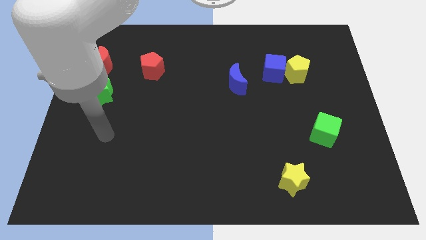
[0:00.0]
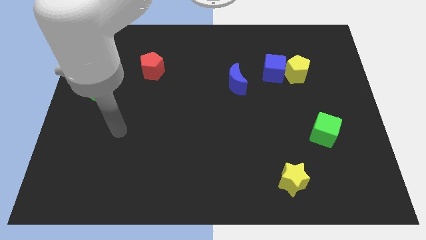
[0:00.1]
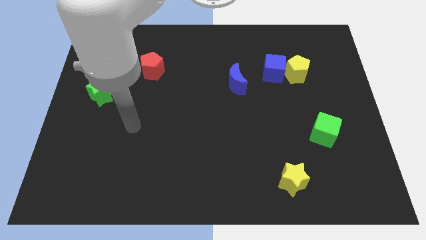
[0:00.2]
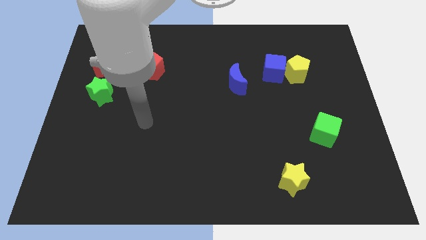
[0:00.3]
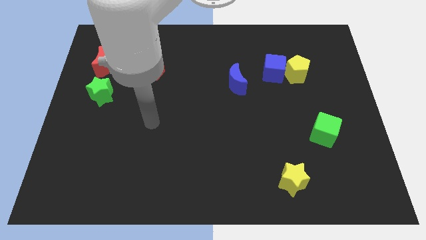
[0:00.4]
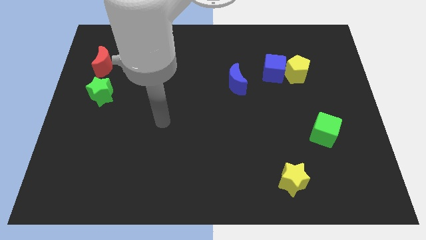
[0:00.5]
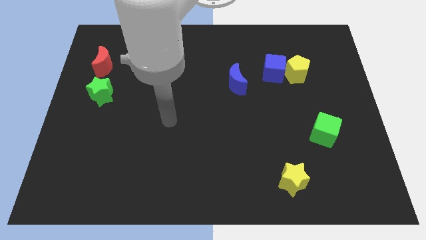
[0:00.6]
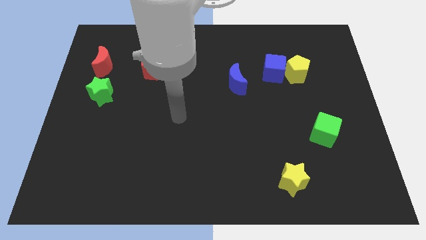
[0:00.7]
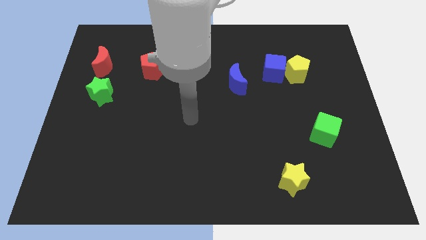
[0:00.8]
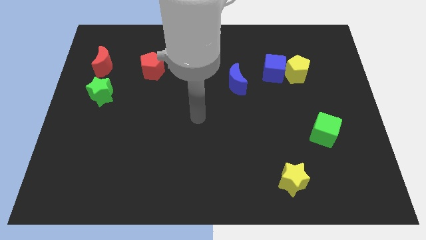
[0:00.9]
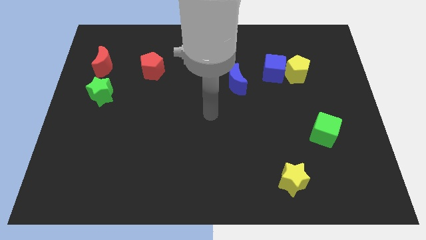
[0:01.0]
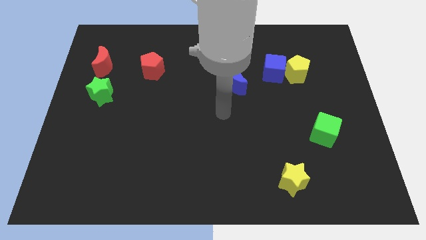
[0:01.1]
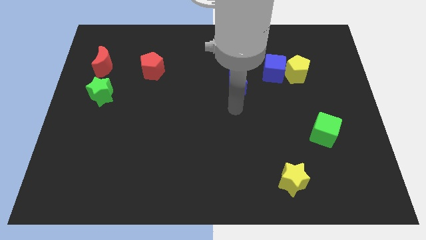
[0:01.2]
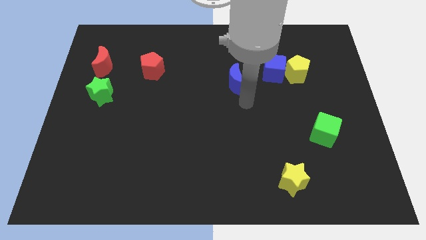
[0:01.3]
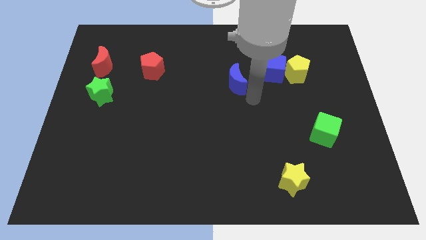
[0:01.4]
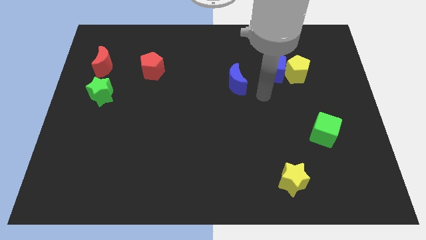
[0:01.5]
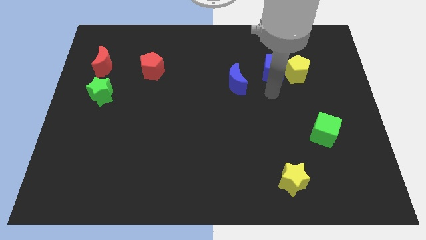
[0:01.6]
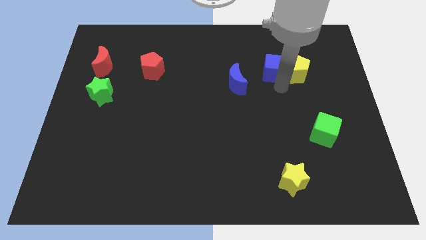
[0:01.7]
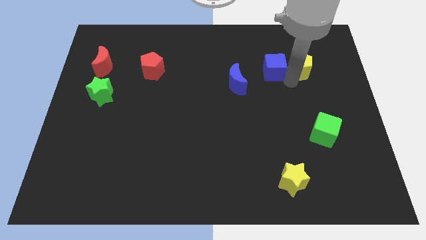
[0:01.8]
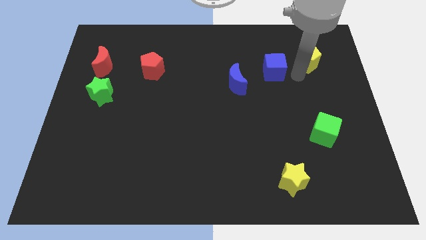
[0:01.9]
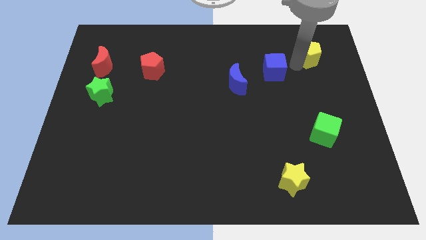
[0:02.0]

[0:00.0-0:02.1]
pull the blue cube apart from the yellow pentagon

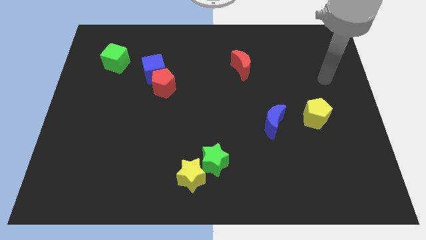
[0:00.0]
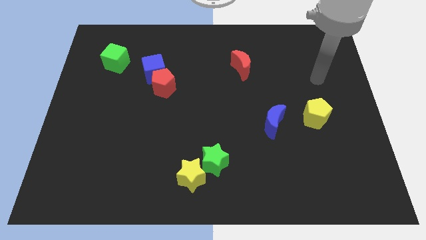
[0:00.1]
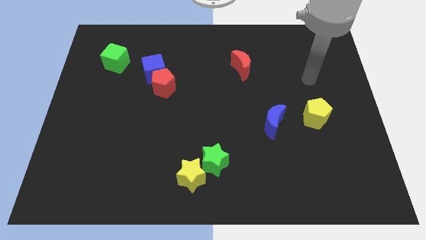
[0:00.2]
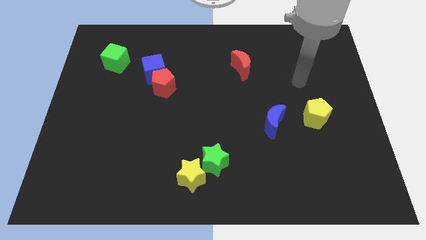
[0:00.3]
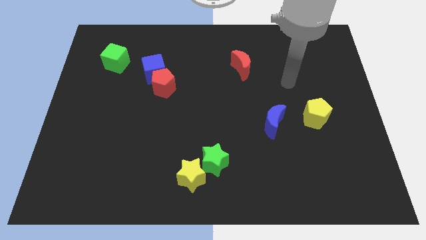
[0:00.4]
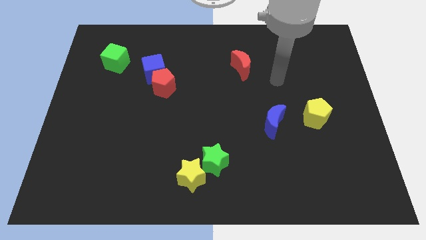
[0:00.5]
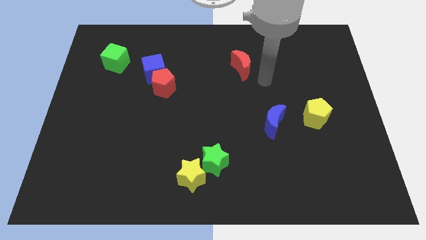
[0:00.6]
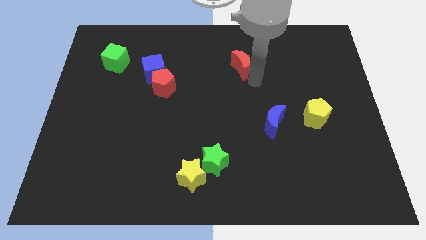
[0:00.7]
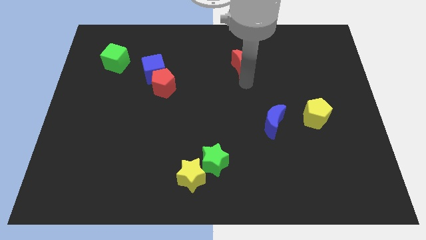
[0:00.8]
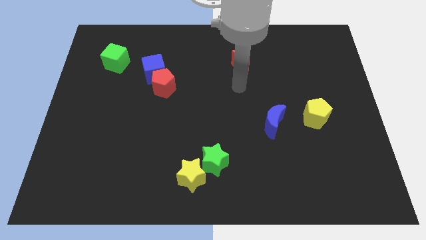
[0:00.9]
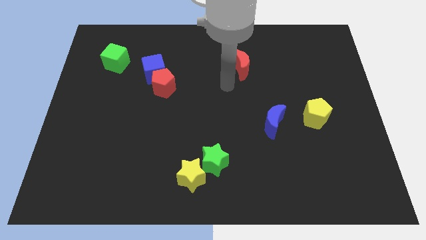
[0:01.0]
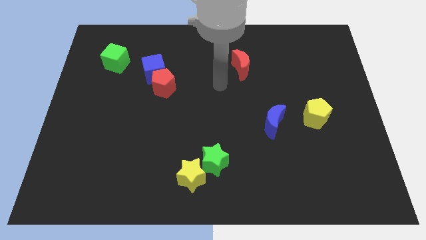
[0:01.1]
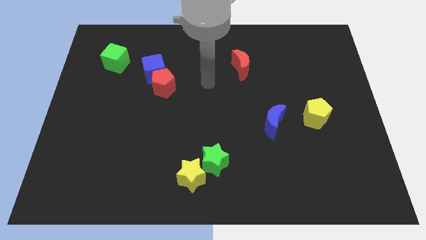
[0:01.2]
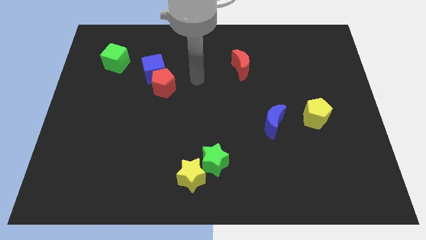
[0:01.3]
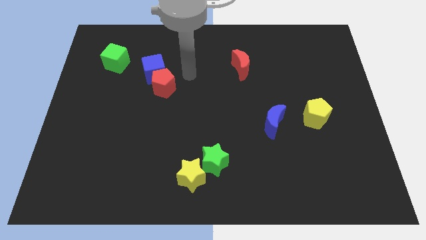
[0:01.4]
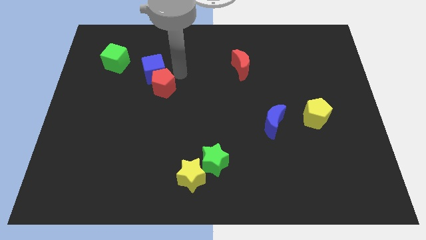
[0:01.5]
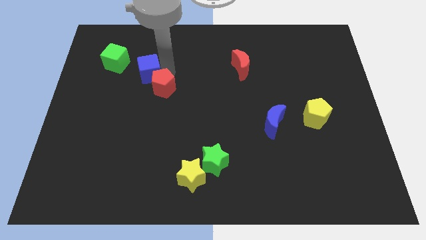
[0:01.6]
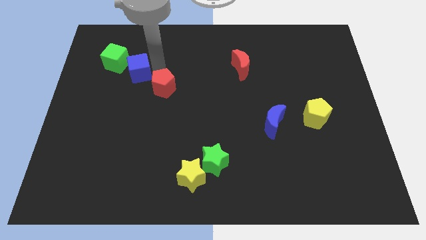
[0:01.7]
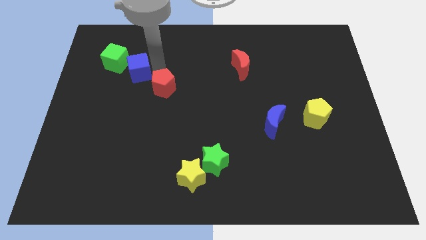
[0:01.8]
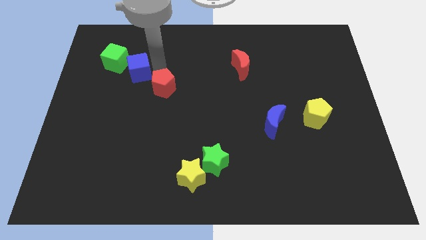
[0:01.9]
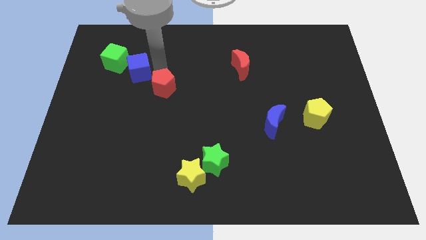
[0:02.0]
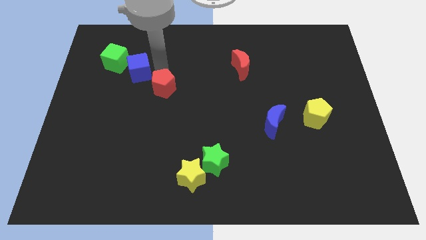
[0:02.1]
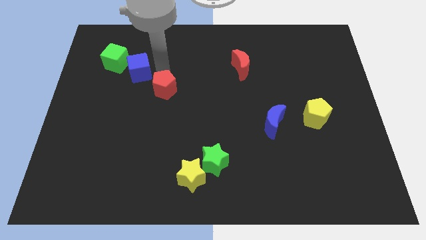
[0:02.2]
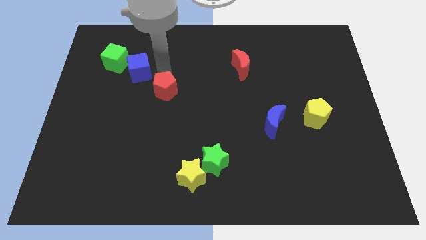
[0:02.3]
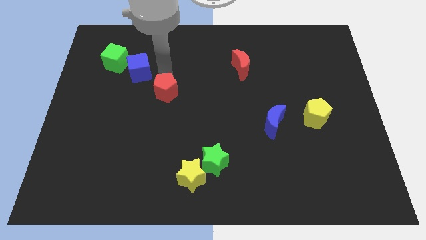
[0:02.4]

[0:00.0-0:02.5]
pull the red pentagon apart from the blue cube

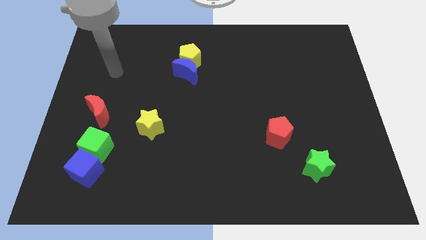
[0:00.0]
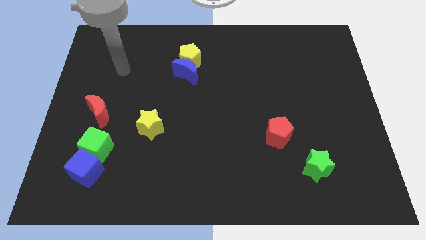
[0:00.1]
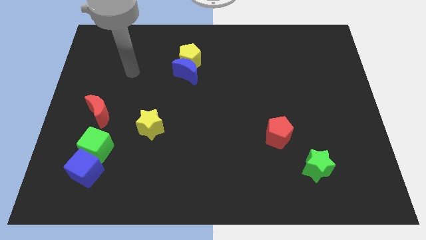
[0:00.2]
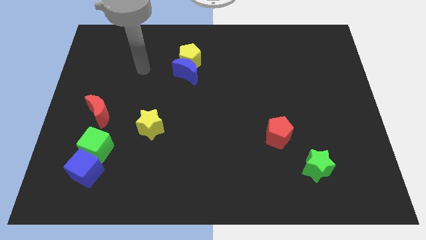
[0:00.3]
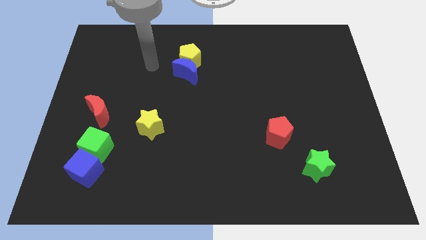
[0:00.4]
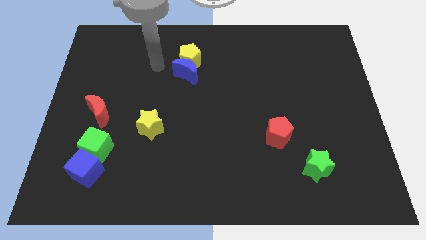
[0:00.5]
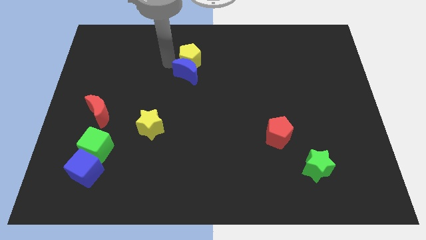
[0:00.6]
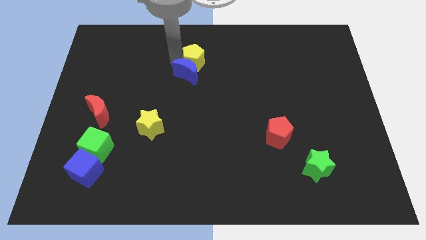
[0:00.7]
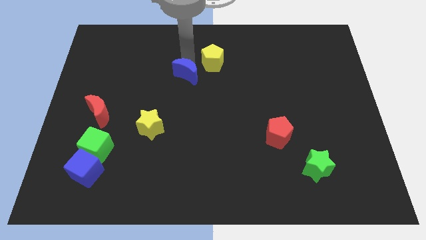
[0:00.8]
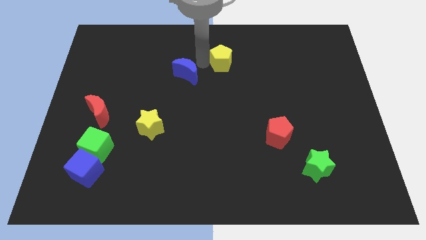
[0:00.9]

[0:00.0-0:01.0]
move the blue moon away from the yellow pentagon

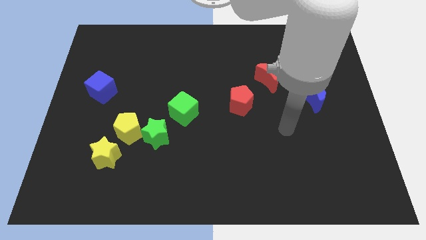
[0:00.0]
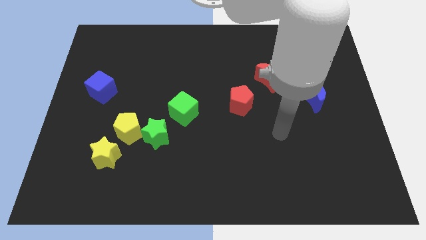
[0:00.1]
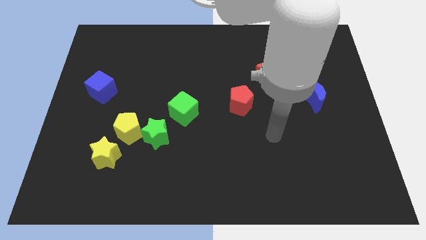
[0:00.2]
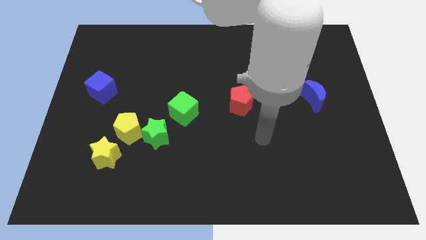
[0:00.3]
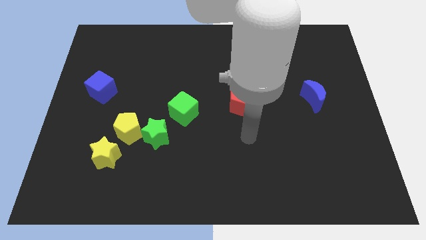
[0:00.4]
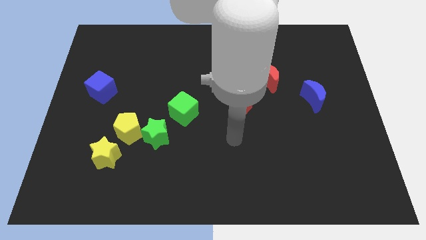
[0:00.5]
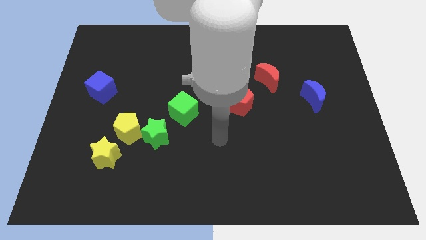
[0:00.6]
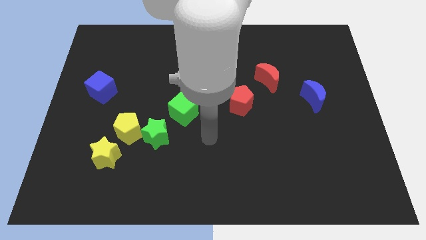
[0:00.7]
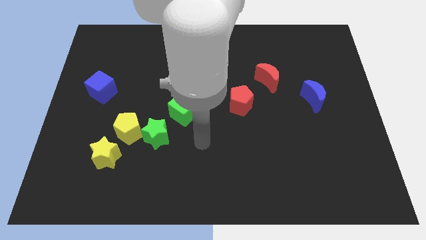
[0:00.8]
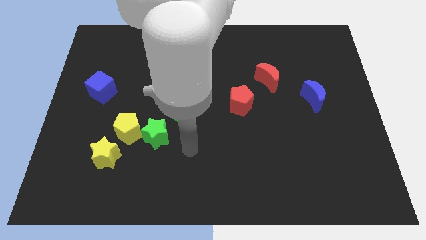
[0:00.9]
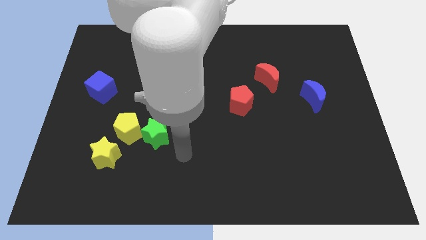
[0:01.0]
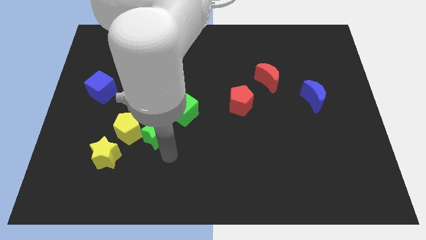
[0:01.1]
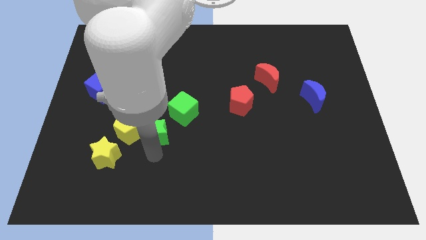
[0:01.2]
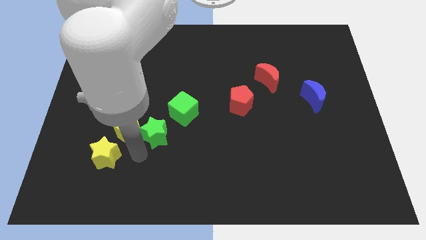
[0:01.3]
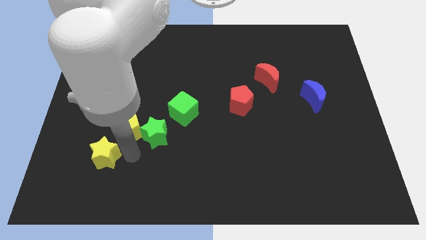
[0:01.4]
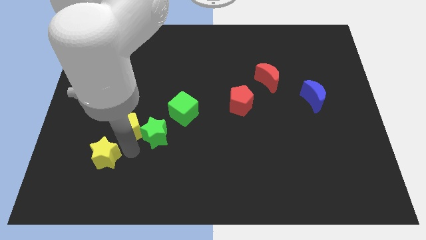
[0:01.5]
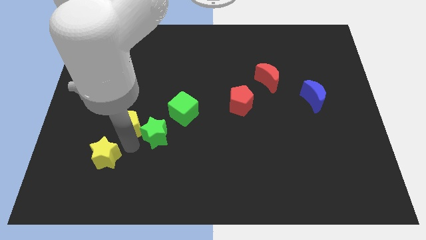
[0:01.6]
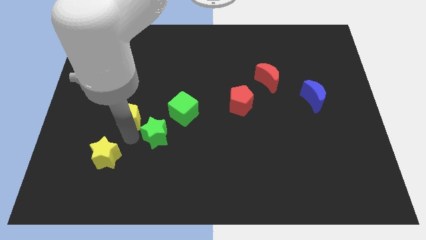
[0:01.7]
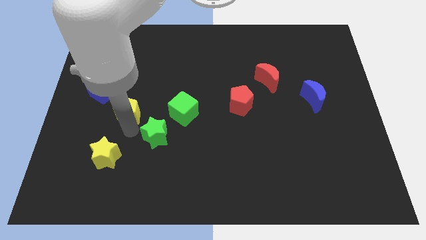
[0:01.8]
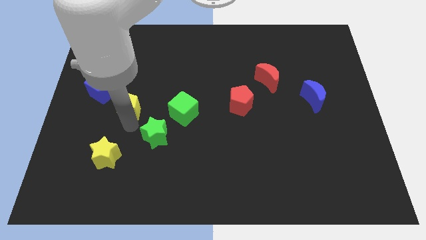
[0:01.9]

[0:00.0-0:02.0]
move the yellow pentagon away from the green star and yellow star

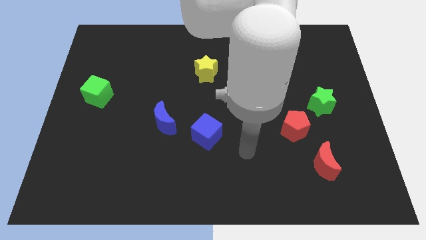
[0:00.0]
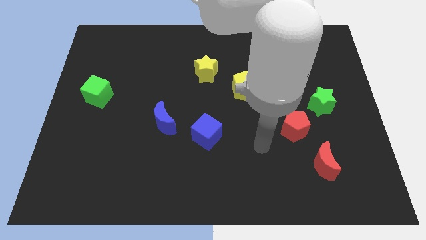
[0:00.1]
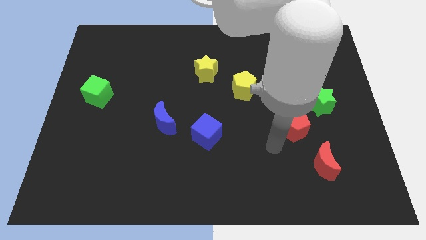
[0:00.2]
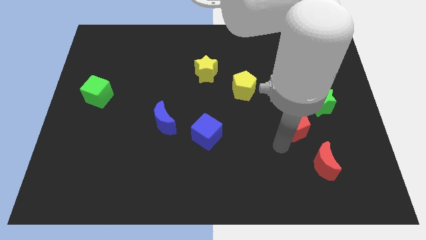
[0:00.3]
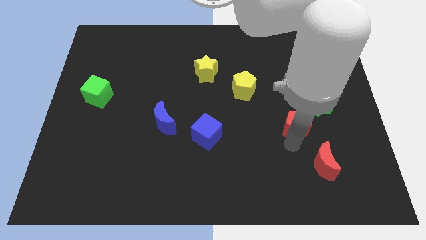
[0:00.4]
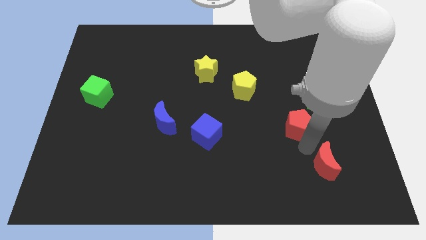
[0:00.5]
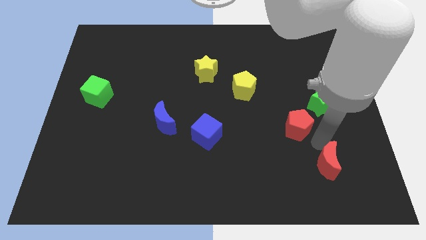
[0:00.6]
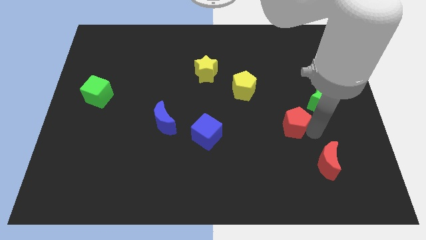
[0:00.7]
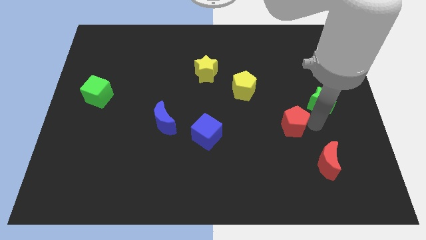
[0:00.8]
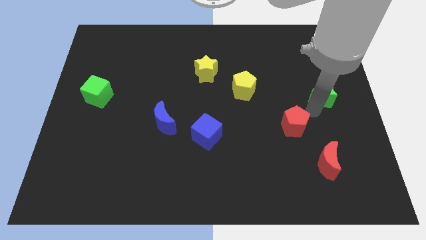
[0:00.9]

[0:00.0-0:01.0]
pull the red pentagon apart from the green star

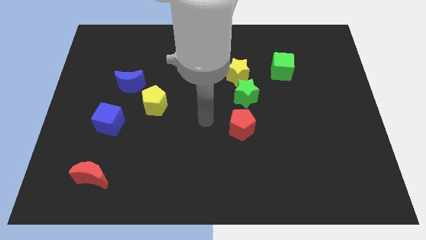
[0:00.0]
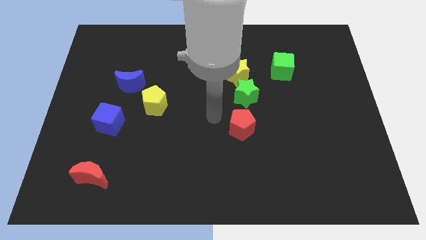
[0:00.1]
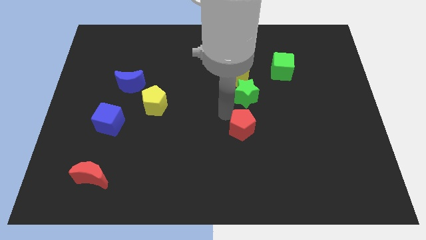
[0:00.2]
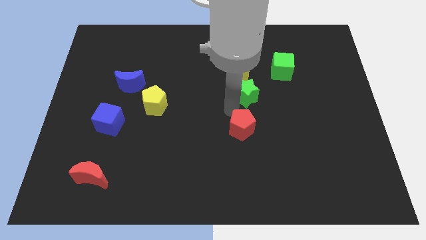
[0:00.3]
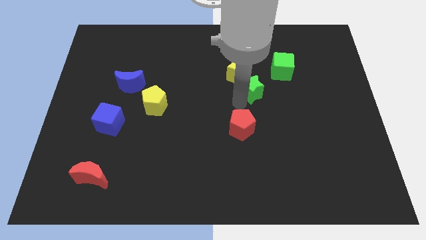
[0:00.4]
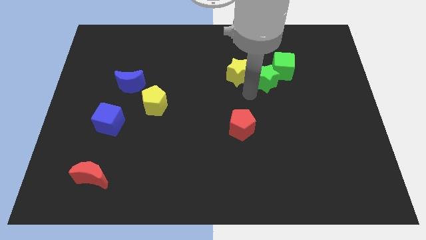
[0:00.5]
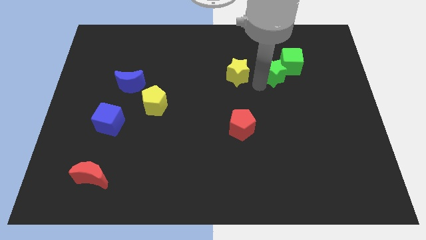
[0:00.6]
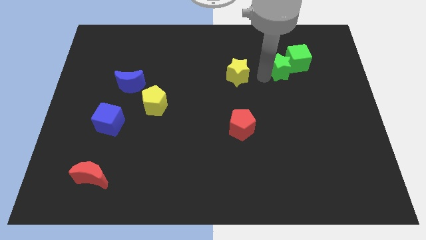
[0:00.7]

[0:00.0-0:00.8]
separate the yellow star from the green star
